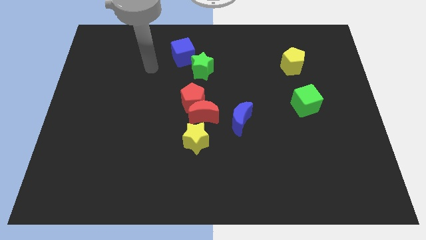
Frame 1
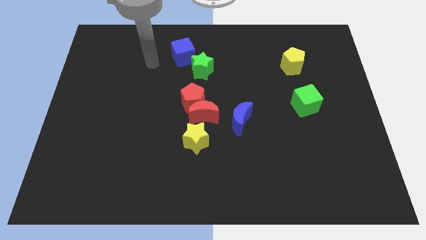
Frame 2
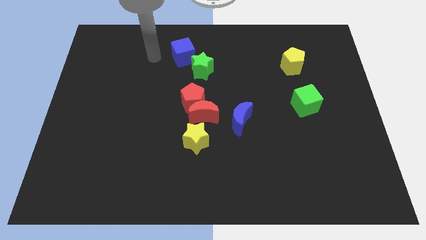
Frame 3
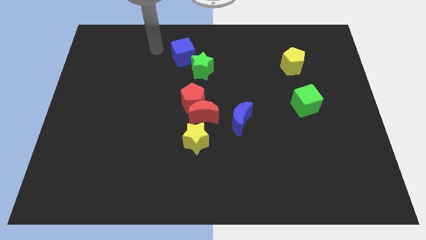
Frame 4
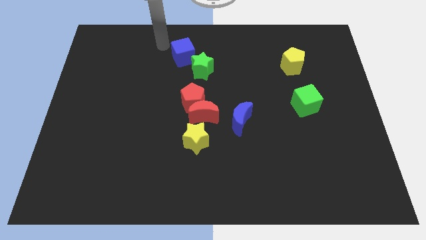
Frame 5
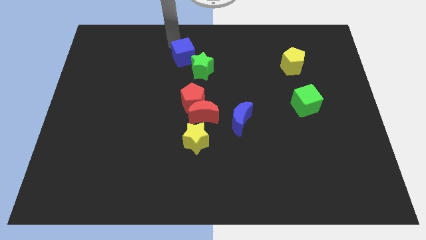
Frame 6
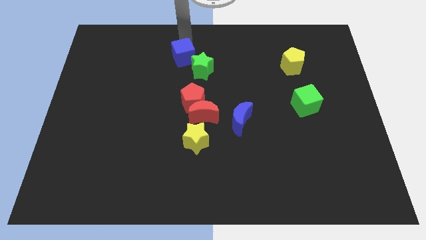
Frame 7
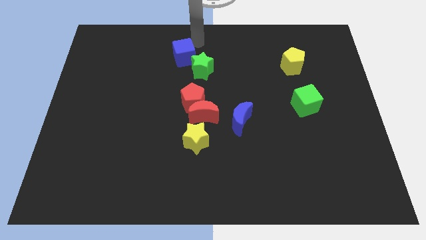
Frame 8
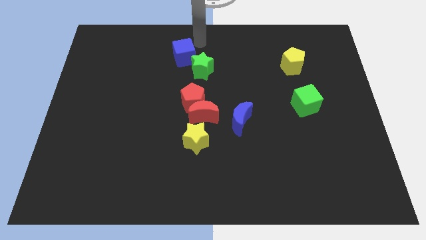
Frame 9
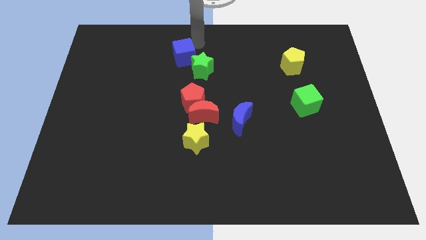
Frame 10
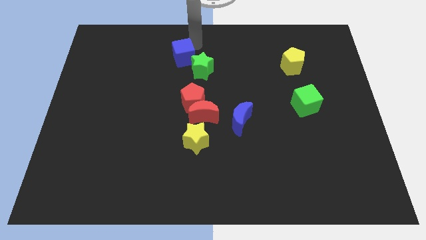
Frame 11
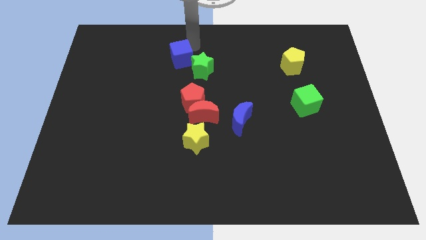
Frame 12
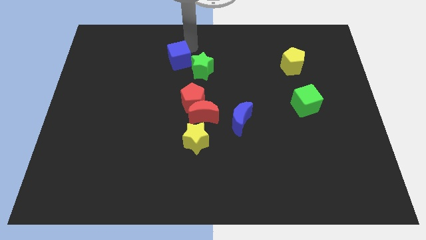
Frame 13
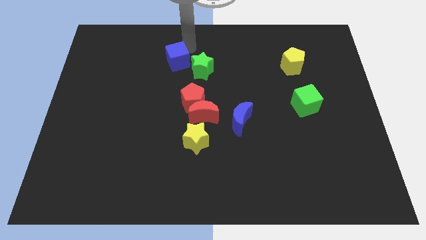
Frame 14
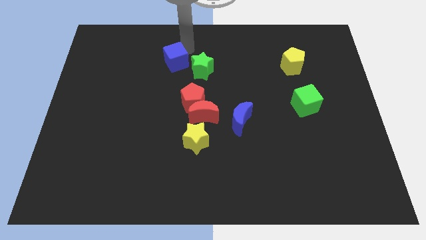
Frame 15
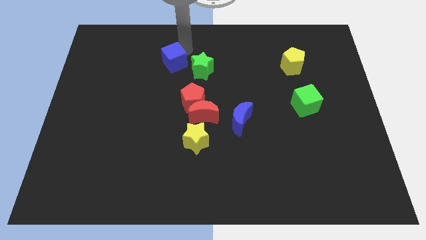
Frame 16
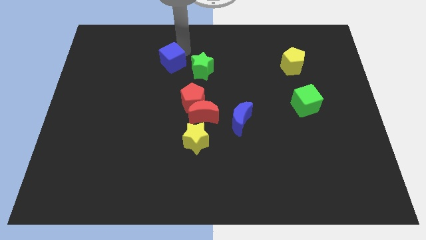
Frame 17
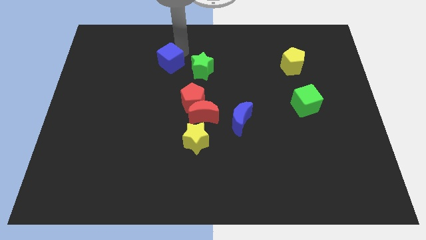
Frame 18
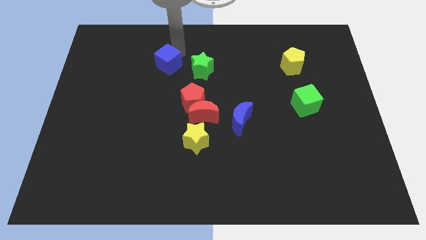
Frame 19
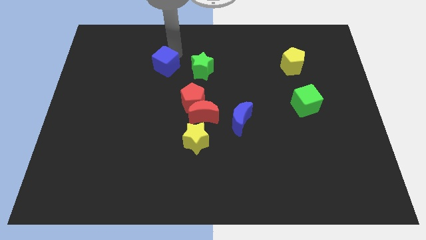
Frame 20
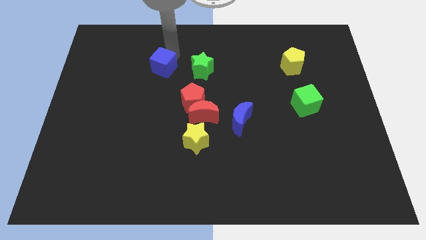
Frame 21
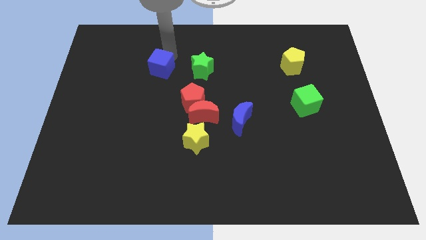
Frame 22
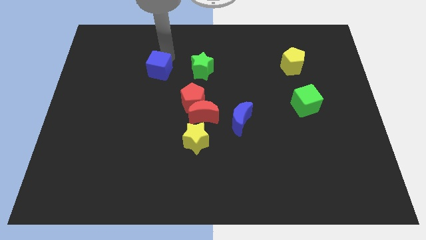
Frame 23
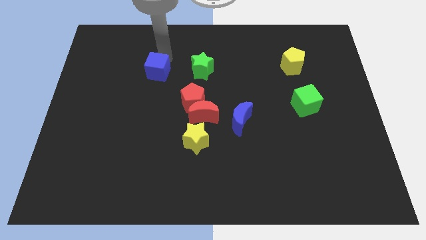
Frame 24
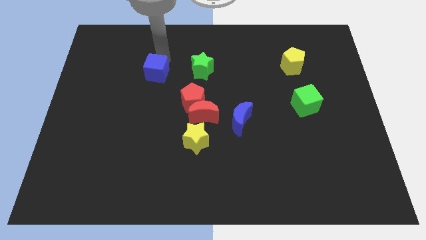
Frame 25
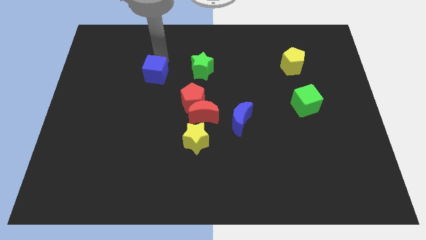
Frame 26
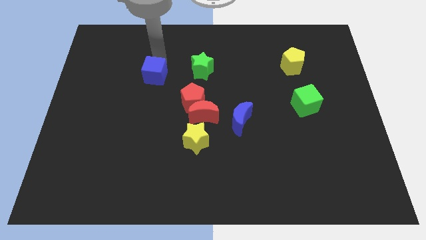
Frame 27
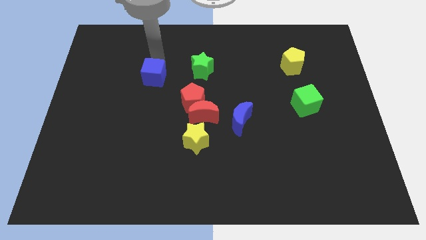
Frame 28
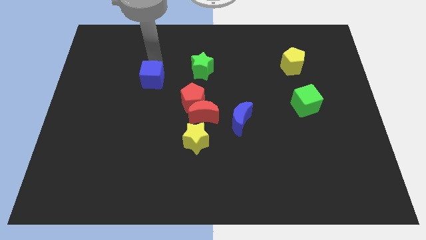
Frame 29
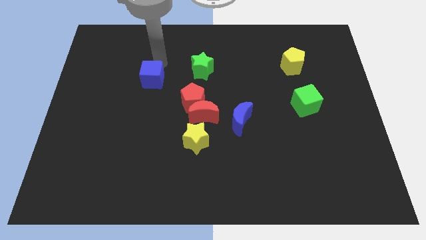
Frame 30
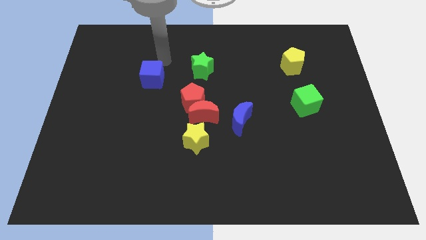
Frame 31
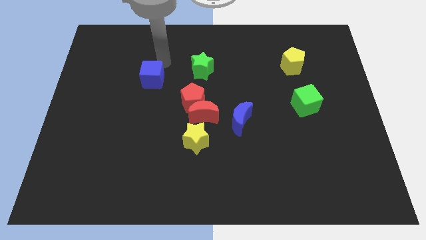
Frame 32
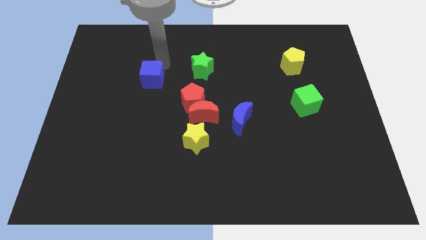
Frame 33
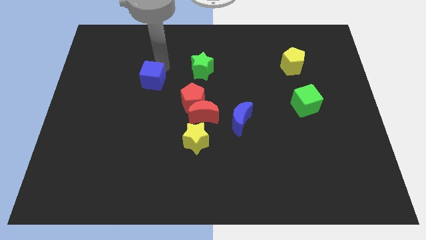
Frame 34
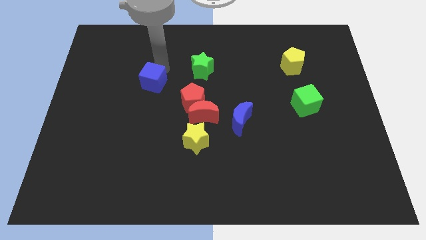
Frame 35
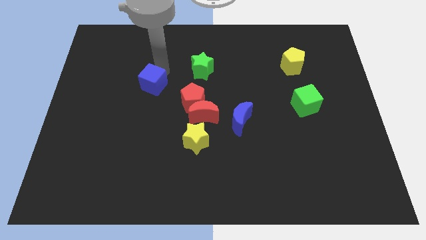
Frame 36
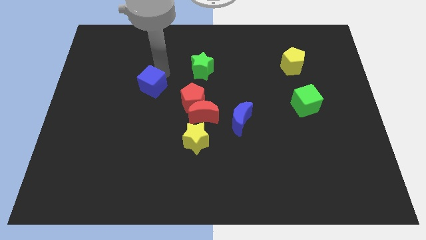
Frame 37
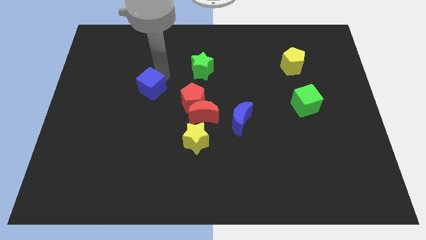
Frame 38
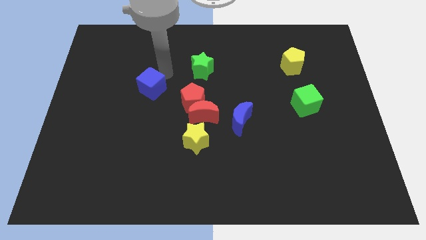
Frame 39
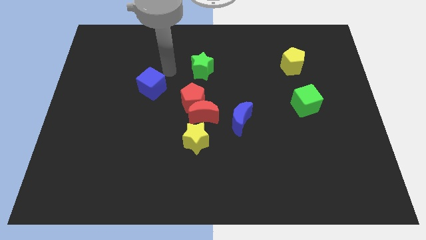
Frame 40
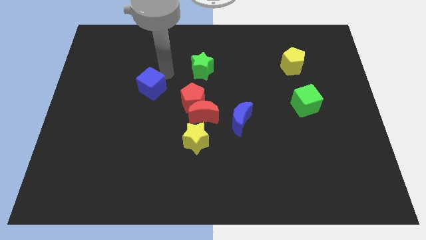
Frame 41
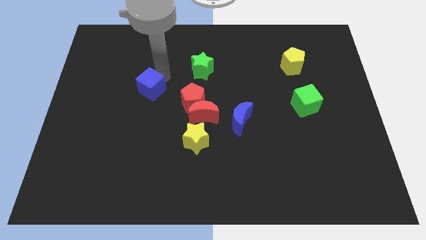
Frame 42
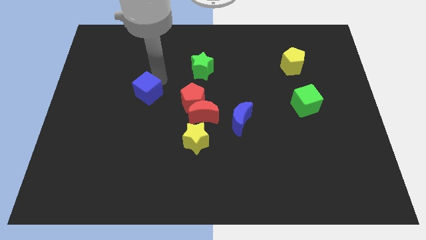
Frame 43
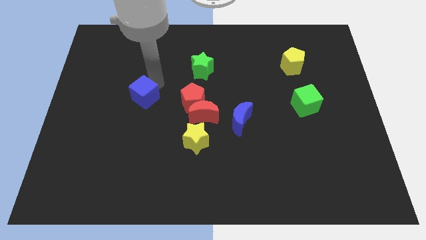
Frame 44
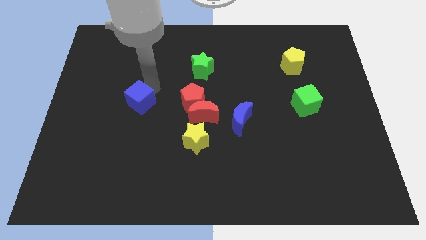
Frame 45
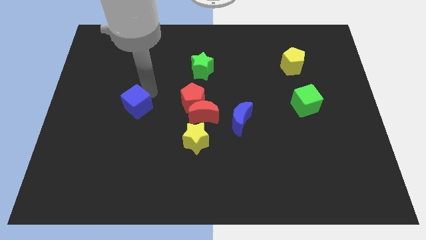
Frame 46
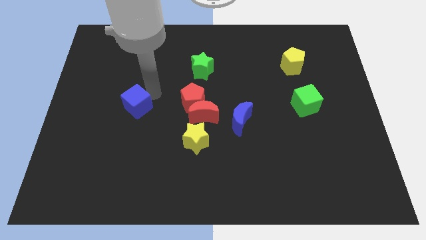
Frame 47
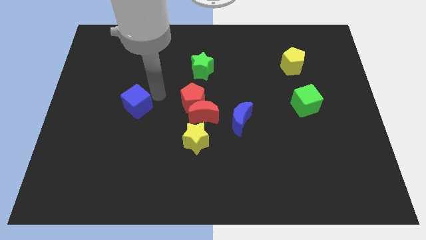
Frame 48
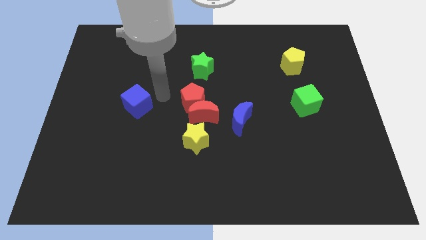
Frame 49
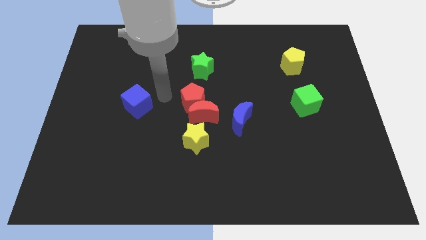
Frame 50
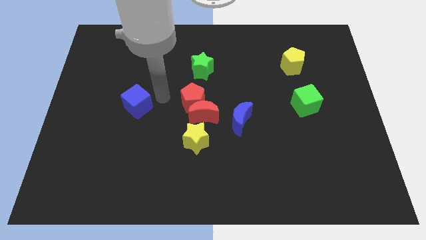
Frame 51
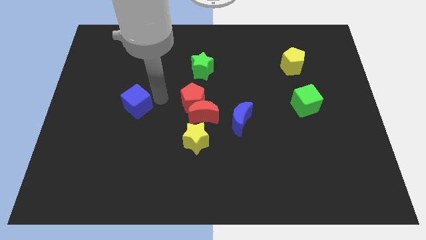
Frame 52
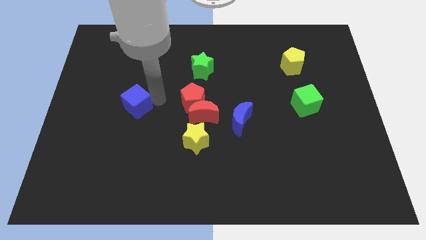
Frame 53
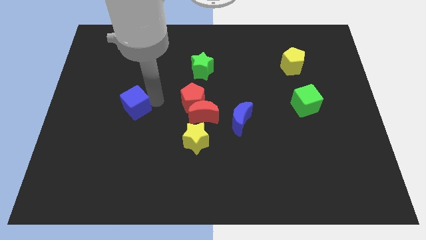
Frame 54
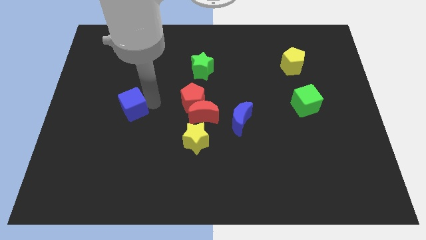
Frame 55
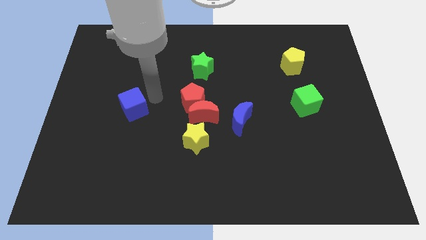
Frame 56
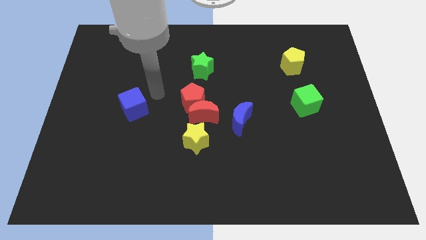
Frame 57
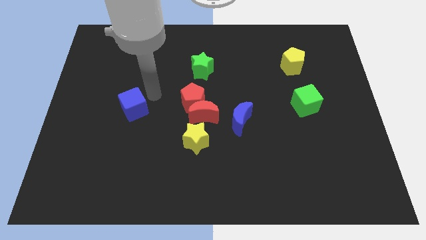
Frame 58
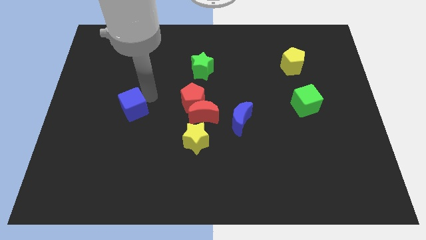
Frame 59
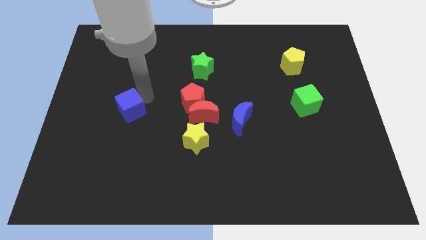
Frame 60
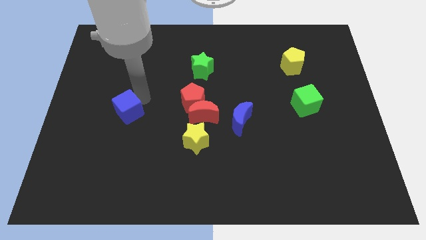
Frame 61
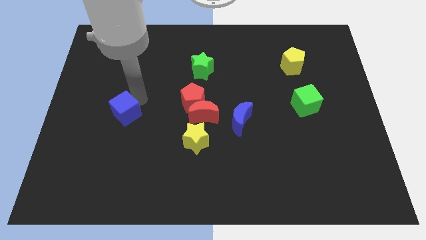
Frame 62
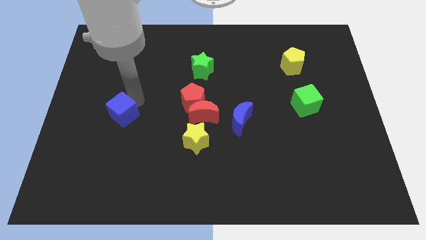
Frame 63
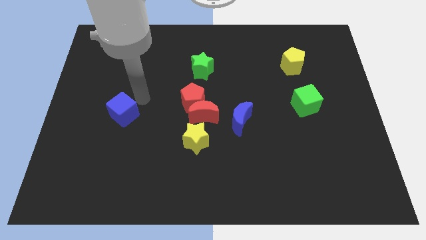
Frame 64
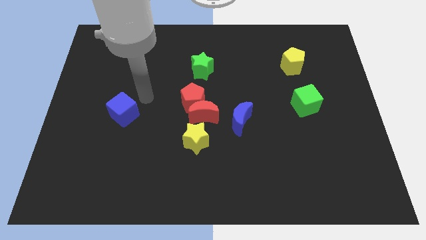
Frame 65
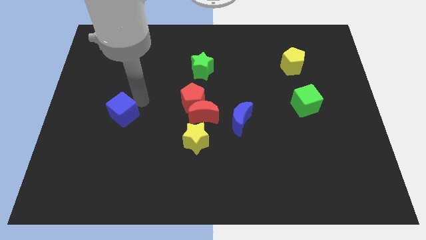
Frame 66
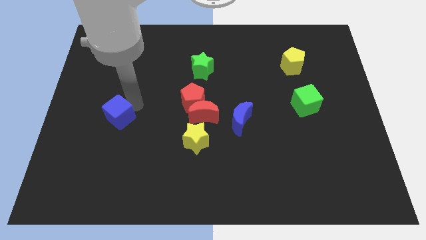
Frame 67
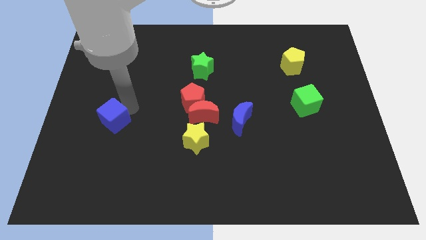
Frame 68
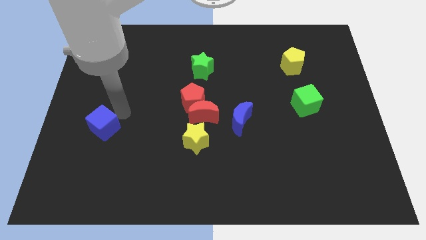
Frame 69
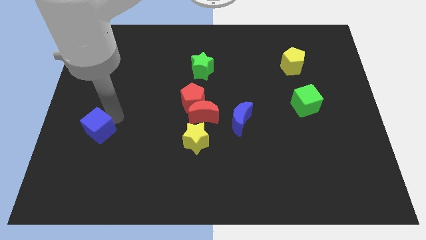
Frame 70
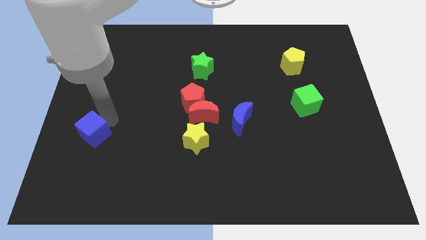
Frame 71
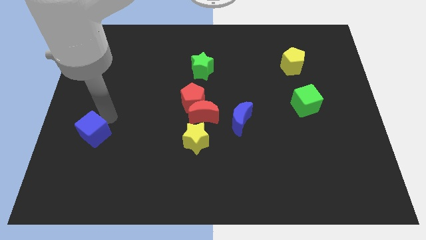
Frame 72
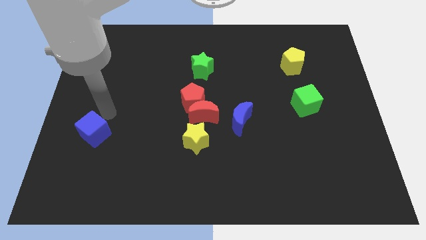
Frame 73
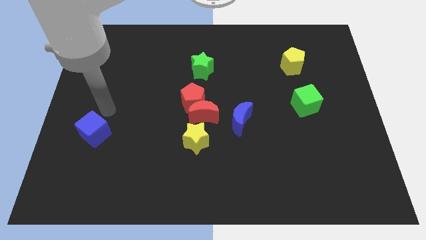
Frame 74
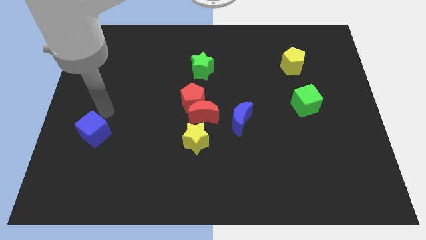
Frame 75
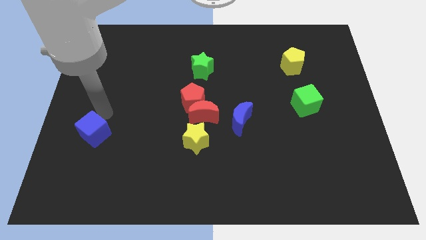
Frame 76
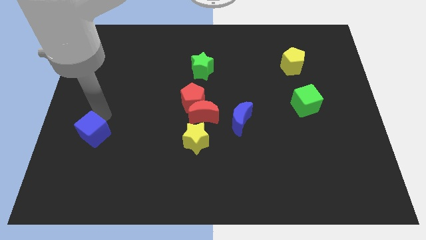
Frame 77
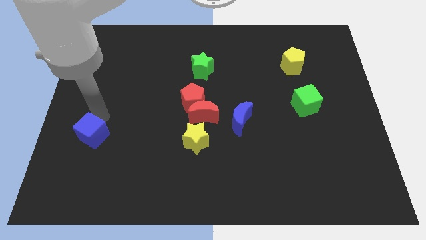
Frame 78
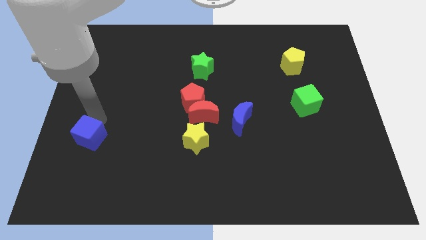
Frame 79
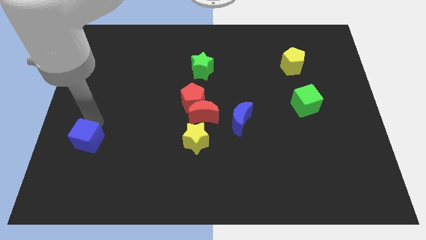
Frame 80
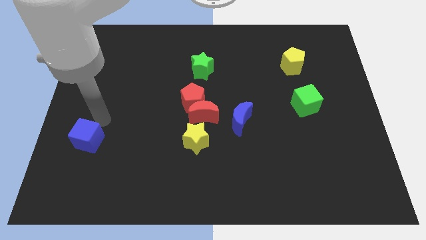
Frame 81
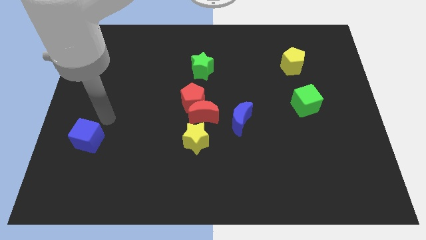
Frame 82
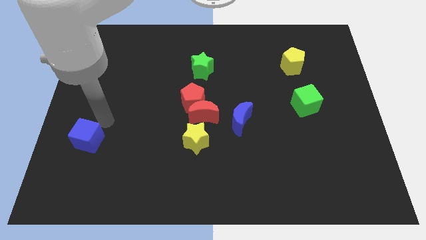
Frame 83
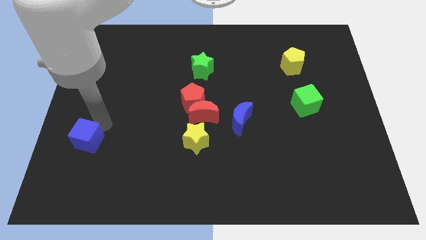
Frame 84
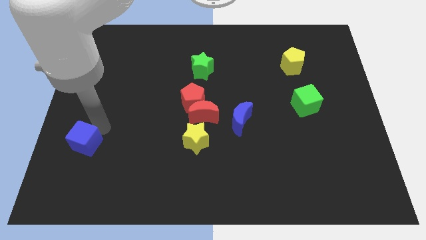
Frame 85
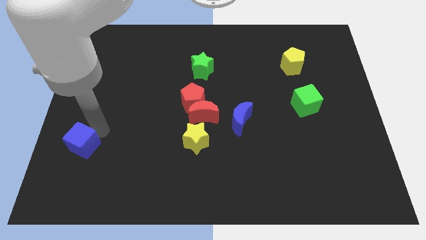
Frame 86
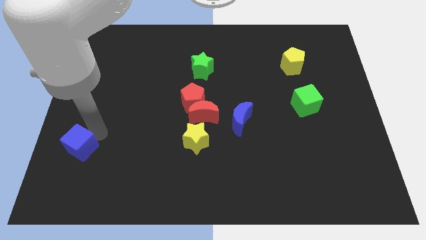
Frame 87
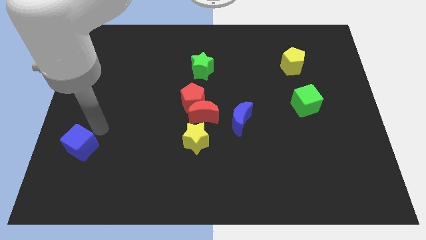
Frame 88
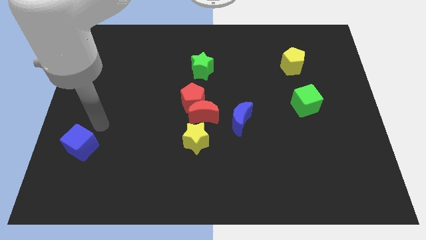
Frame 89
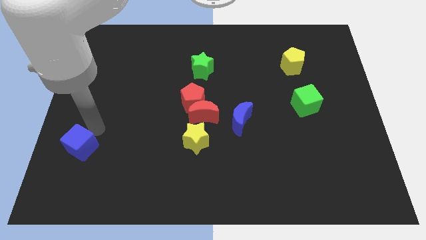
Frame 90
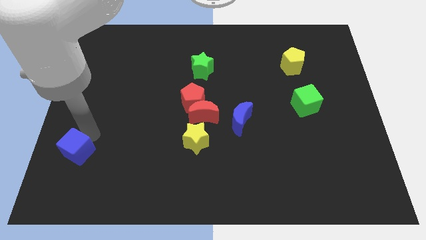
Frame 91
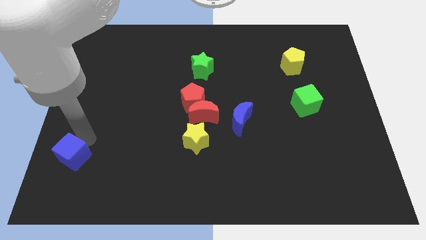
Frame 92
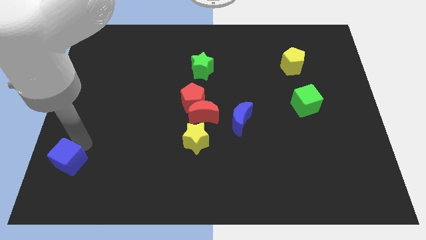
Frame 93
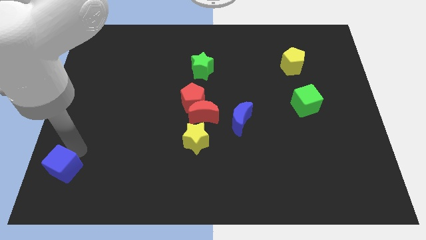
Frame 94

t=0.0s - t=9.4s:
put the blue cube to the bottom left of the board
